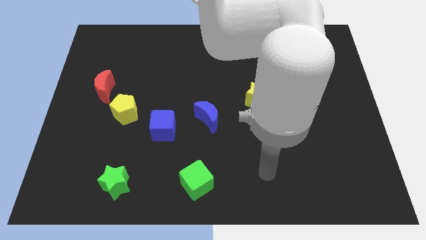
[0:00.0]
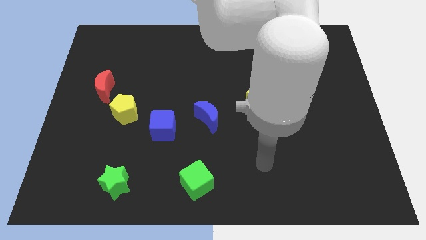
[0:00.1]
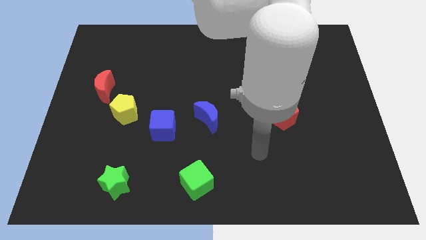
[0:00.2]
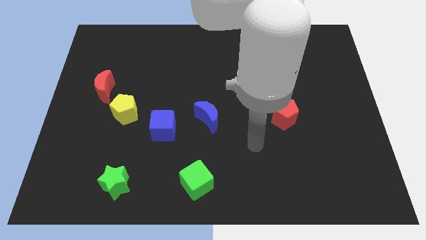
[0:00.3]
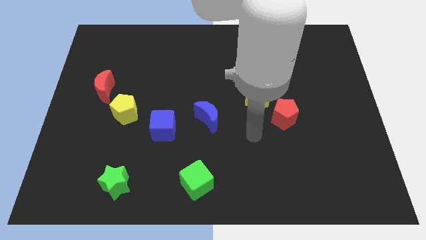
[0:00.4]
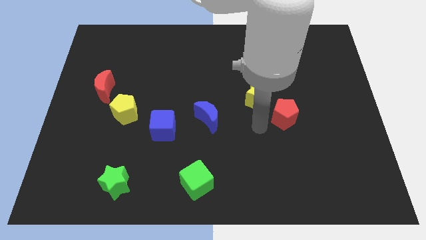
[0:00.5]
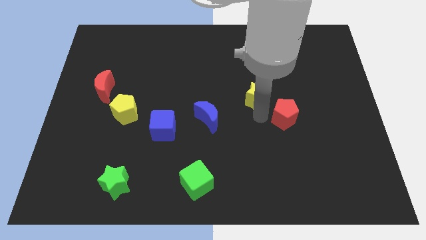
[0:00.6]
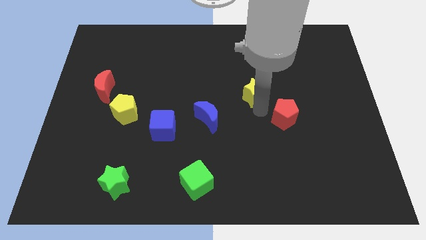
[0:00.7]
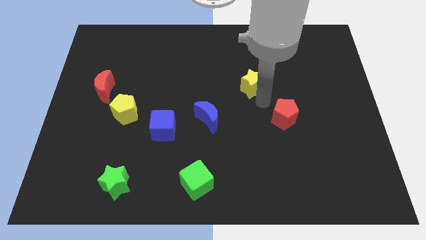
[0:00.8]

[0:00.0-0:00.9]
move the red pentagon away from the yellow star

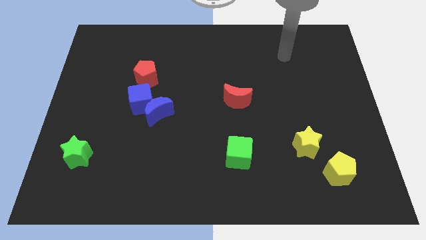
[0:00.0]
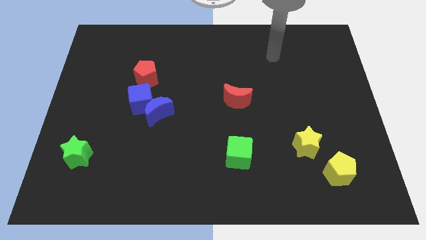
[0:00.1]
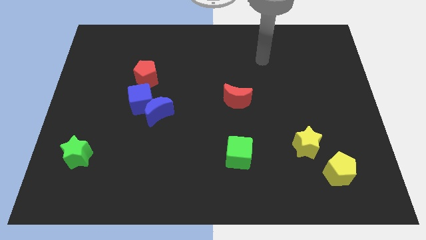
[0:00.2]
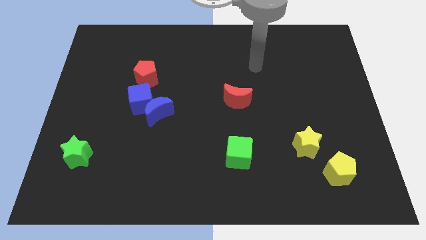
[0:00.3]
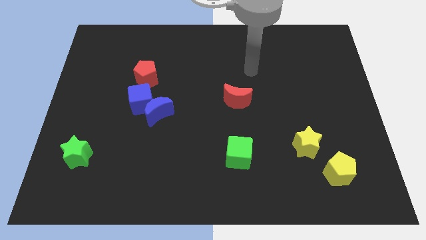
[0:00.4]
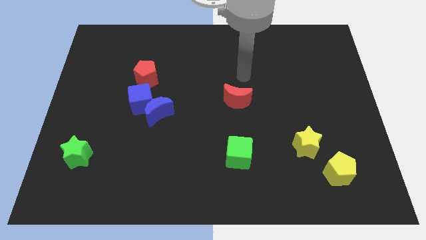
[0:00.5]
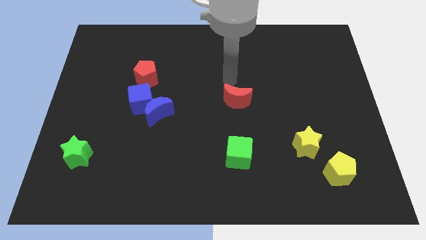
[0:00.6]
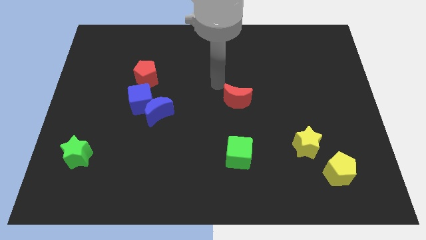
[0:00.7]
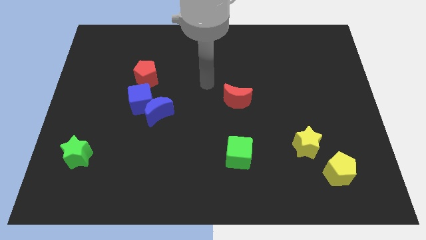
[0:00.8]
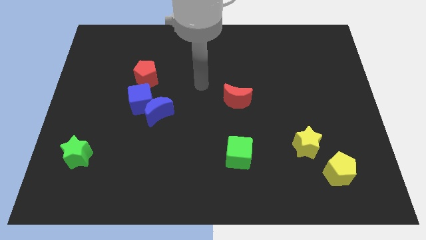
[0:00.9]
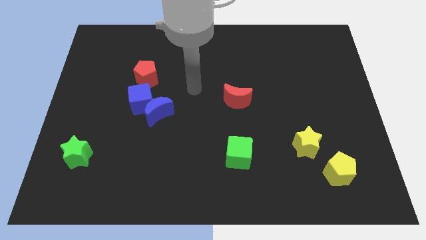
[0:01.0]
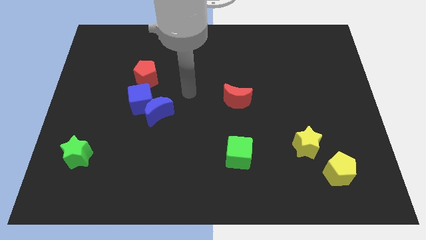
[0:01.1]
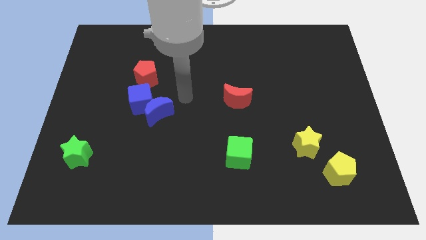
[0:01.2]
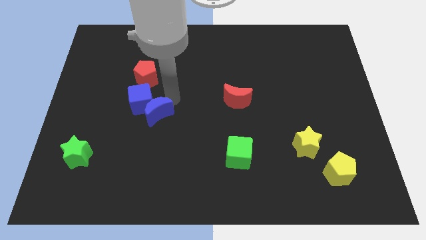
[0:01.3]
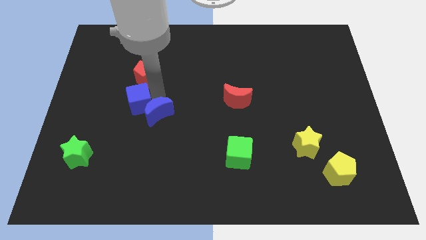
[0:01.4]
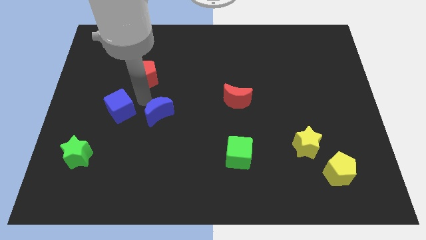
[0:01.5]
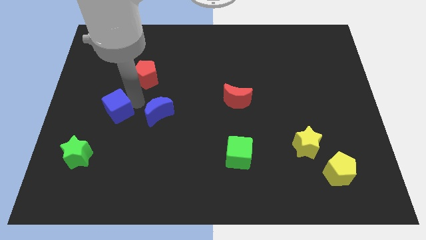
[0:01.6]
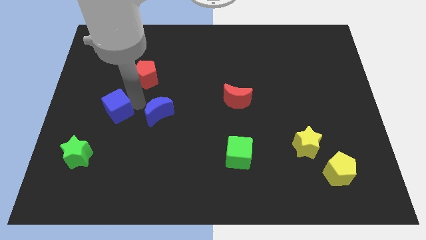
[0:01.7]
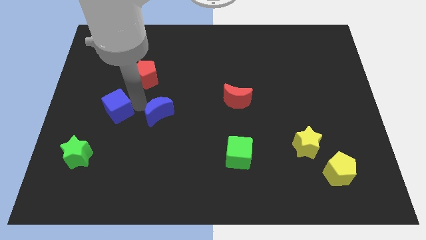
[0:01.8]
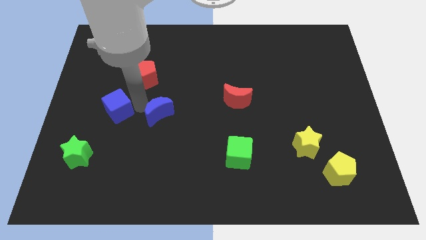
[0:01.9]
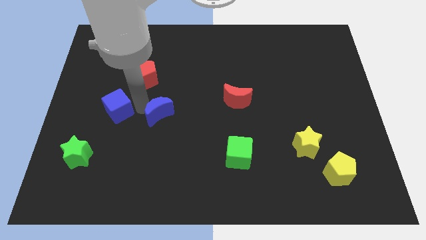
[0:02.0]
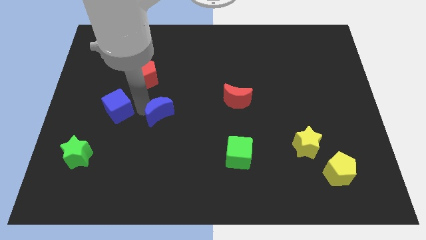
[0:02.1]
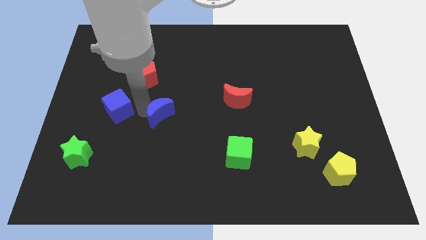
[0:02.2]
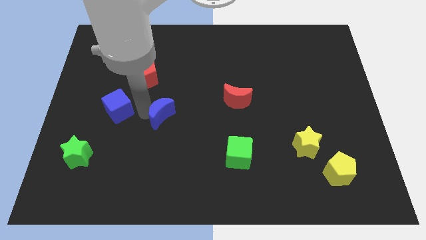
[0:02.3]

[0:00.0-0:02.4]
separate the blue moon from the blue cube

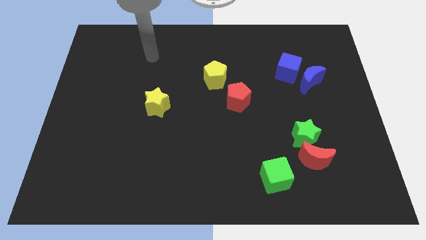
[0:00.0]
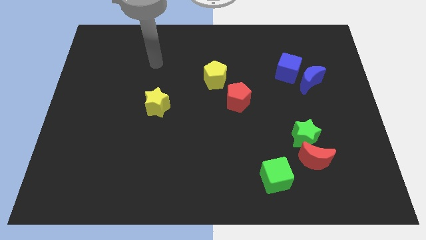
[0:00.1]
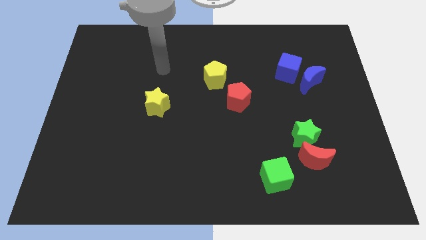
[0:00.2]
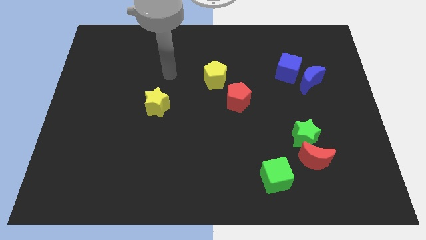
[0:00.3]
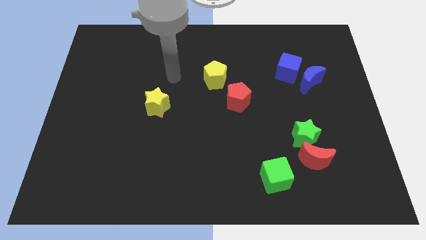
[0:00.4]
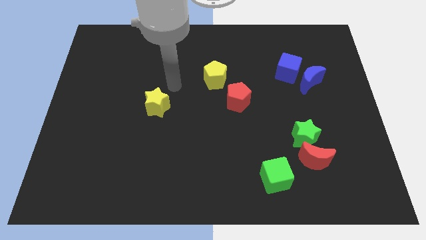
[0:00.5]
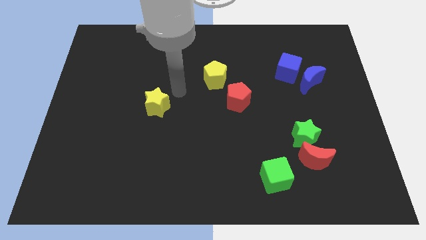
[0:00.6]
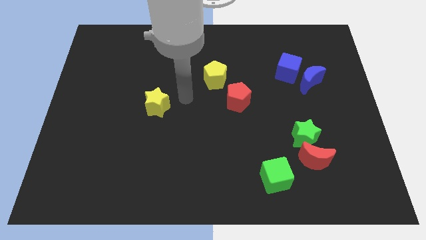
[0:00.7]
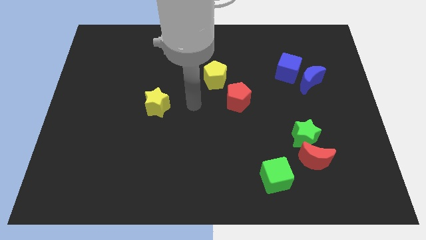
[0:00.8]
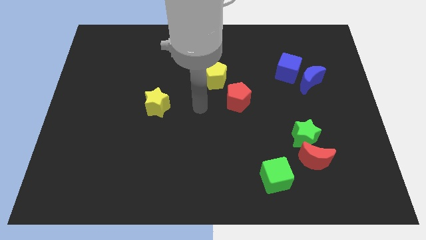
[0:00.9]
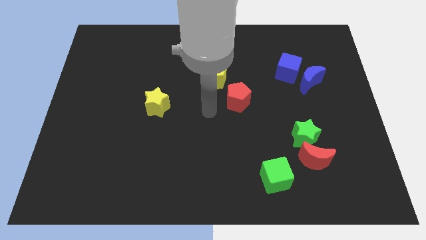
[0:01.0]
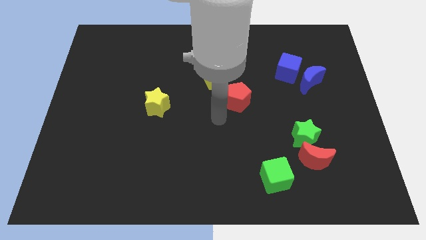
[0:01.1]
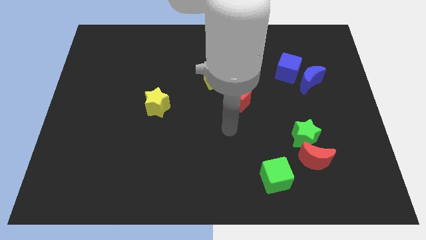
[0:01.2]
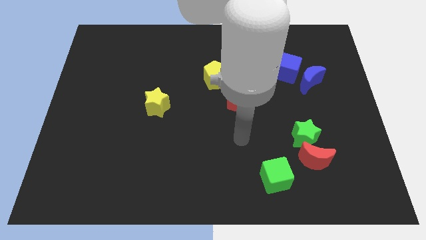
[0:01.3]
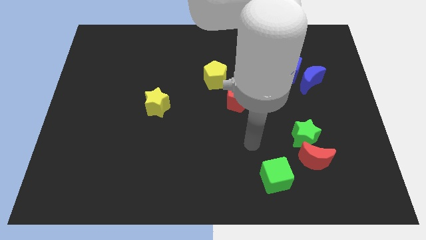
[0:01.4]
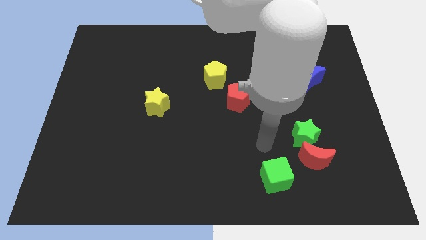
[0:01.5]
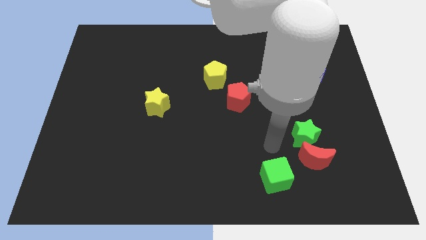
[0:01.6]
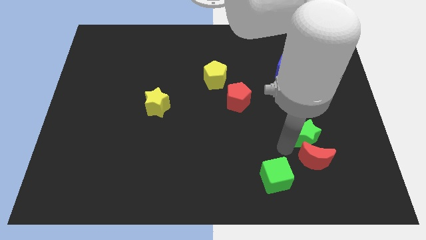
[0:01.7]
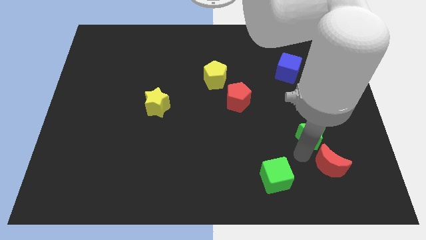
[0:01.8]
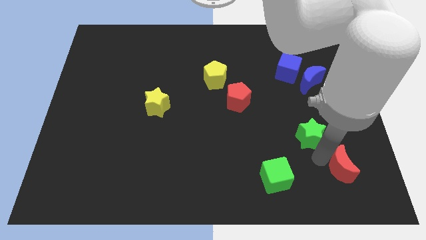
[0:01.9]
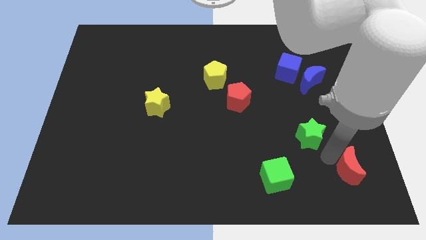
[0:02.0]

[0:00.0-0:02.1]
pull the green star apart from the red moon

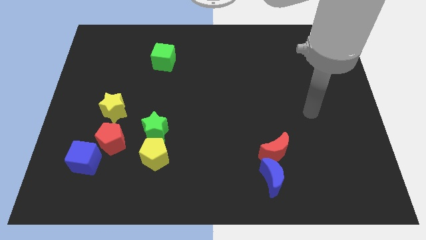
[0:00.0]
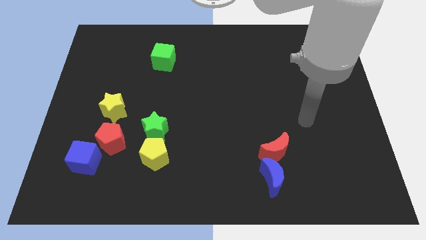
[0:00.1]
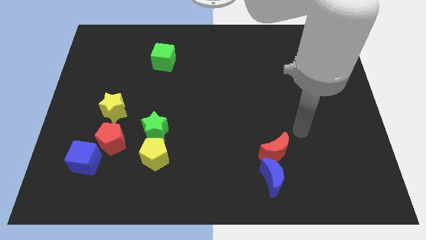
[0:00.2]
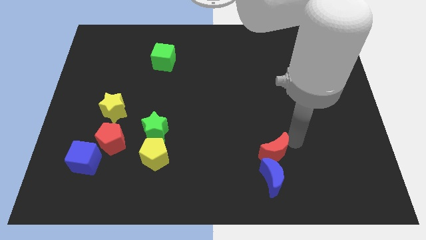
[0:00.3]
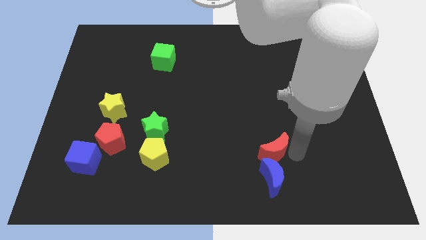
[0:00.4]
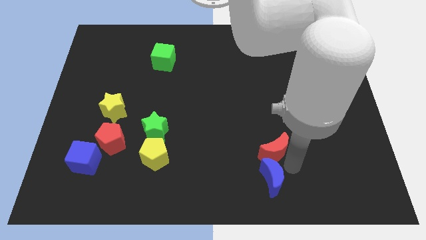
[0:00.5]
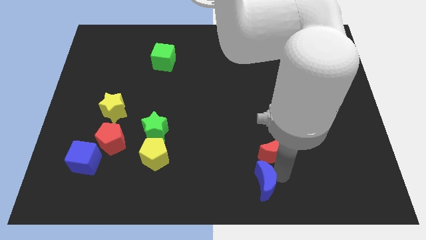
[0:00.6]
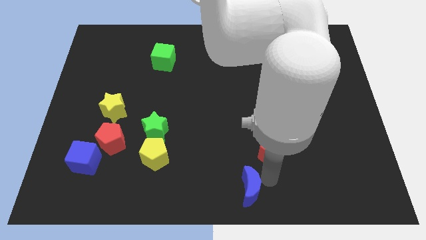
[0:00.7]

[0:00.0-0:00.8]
separate the red moon from the blue moon

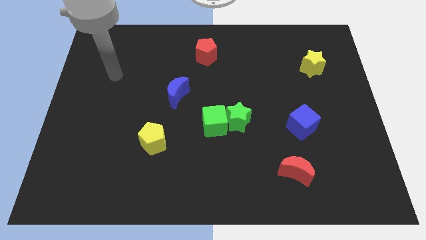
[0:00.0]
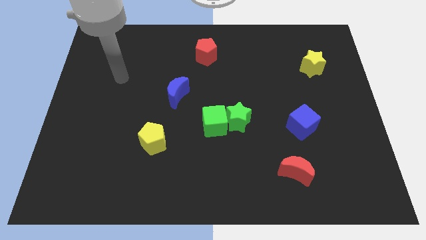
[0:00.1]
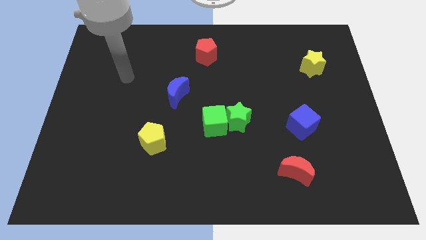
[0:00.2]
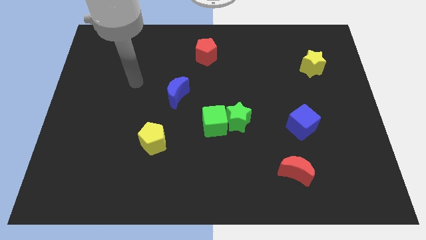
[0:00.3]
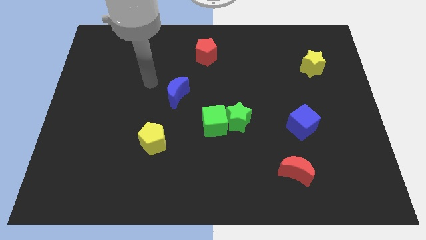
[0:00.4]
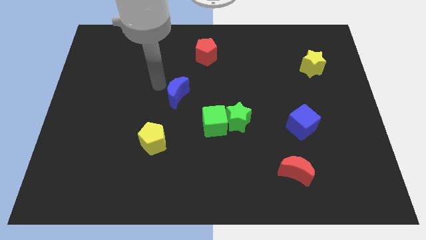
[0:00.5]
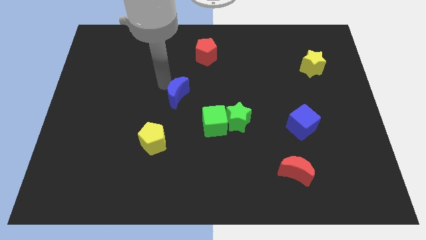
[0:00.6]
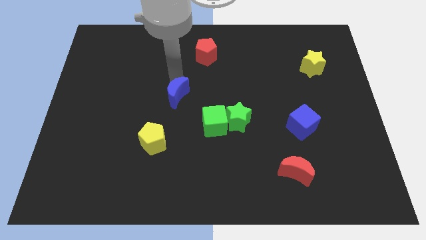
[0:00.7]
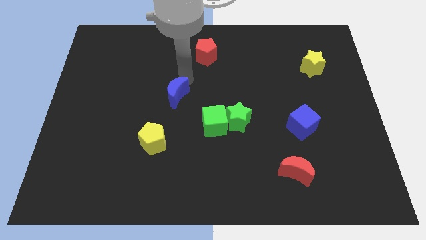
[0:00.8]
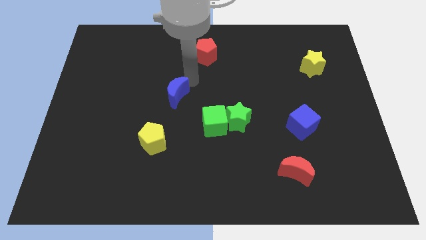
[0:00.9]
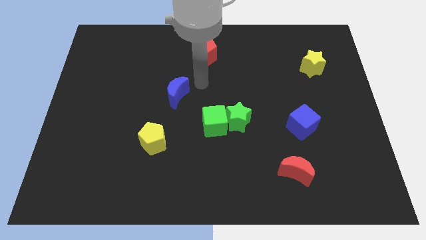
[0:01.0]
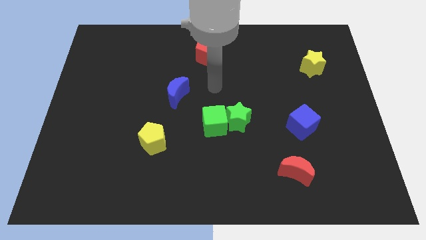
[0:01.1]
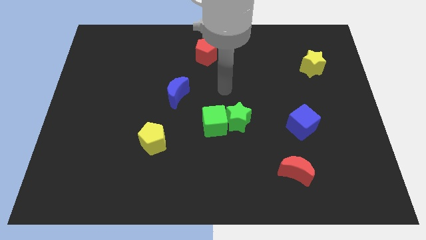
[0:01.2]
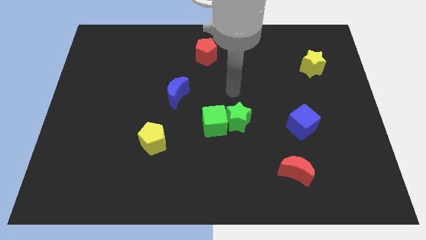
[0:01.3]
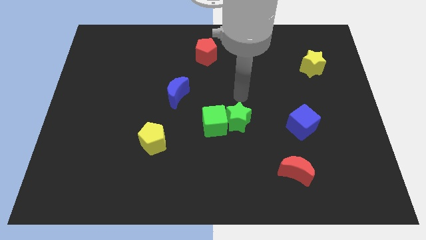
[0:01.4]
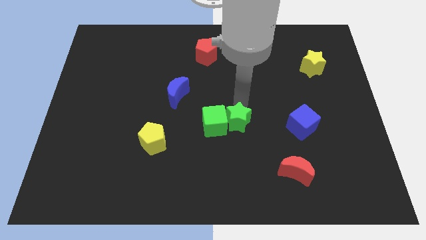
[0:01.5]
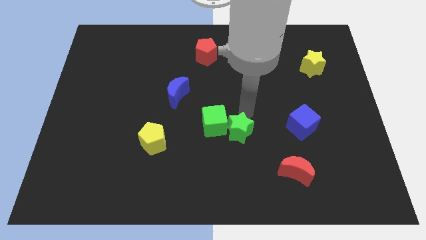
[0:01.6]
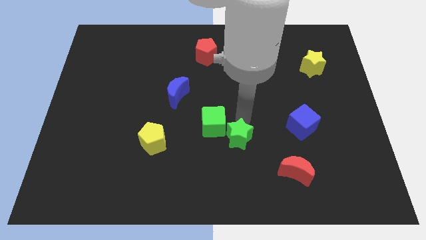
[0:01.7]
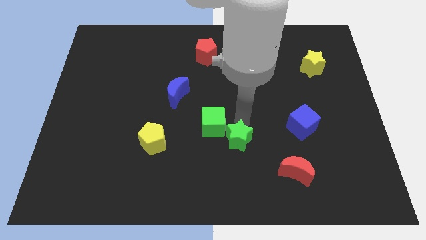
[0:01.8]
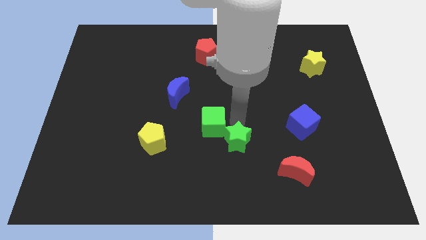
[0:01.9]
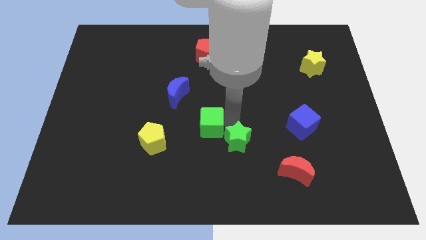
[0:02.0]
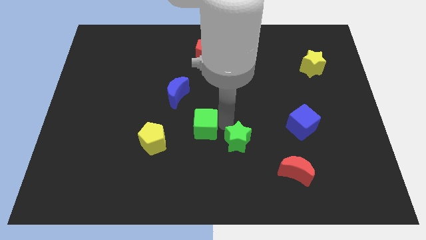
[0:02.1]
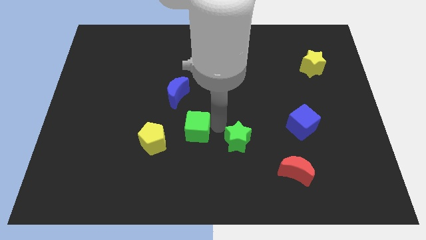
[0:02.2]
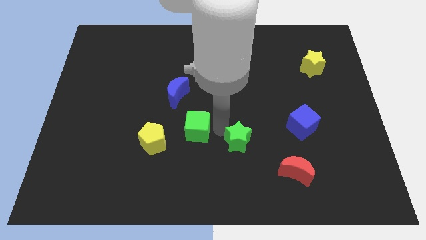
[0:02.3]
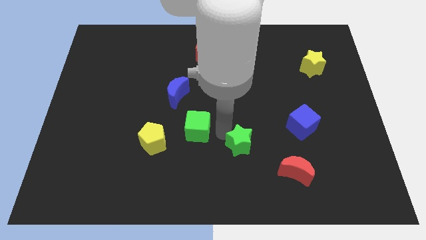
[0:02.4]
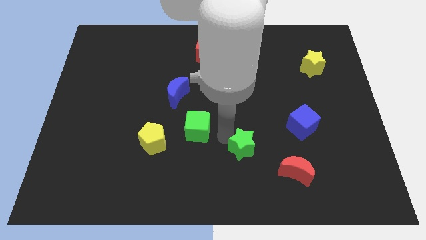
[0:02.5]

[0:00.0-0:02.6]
separate the green cube from the green star

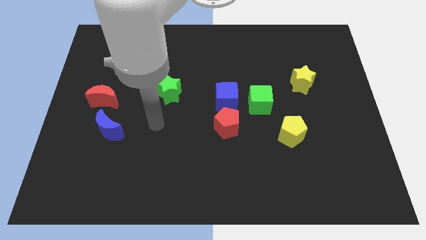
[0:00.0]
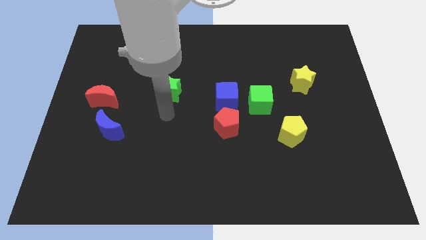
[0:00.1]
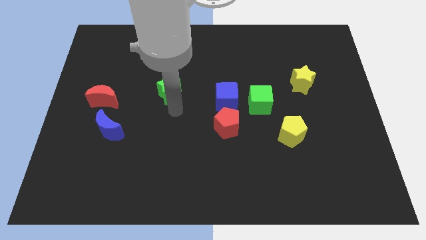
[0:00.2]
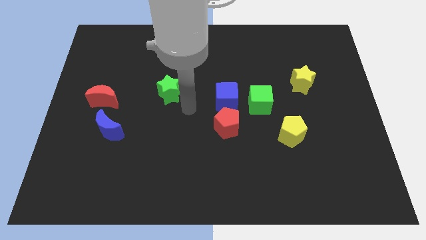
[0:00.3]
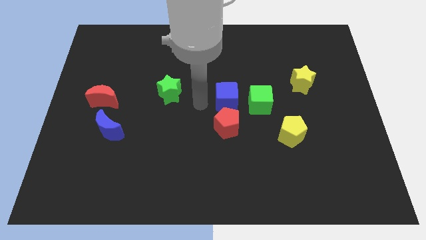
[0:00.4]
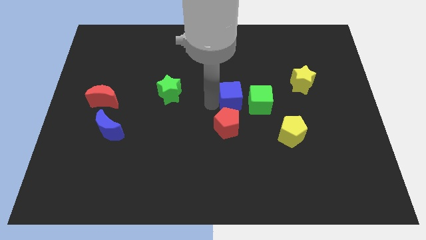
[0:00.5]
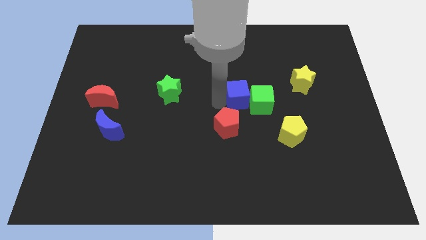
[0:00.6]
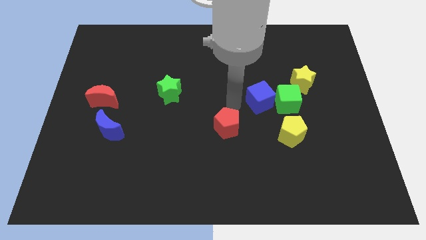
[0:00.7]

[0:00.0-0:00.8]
move the red pentagon away from the blue cube
